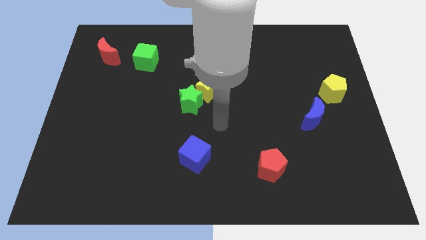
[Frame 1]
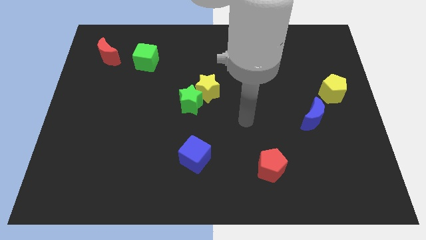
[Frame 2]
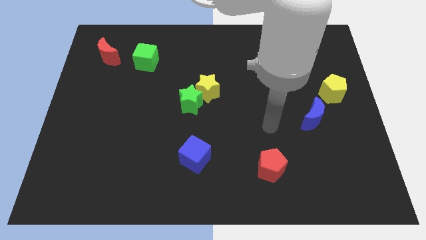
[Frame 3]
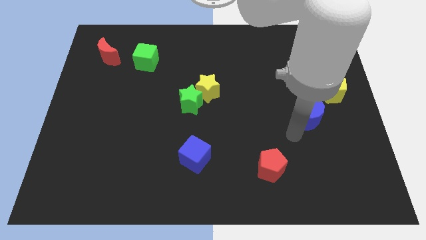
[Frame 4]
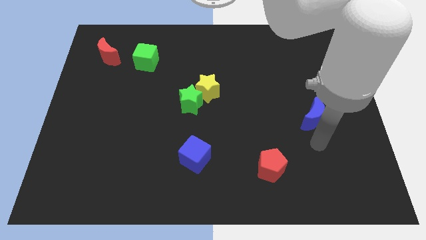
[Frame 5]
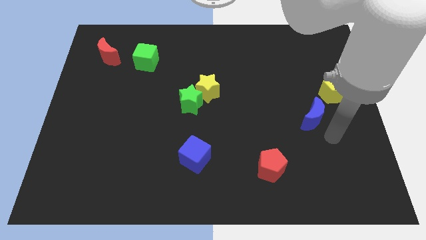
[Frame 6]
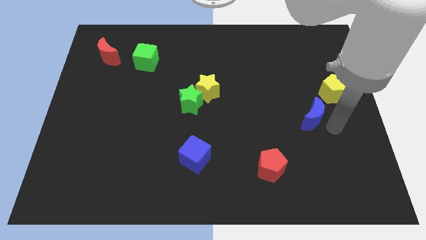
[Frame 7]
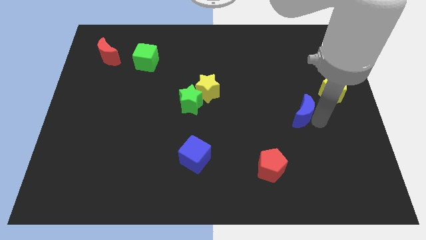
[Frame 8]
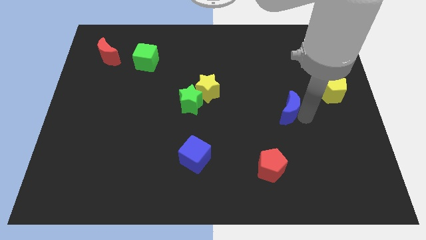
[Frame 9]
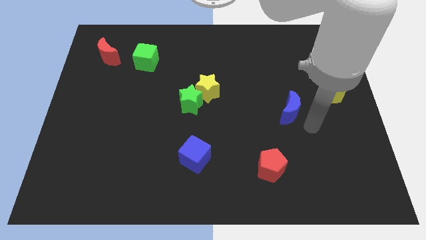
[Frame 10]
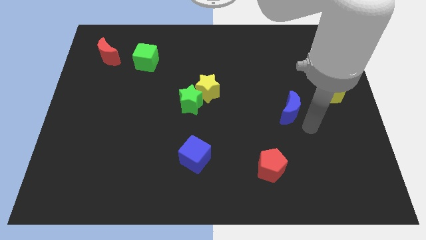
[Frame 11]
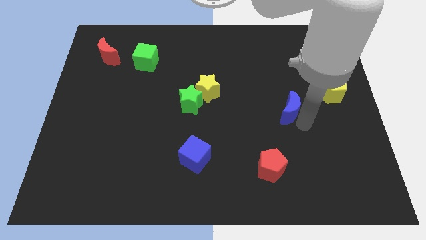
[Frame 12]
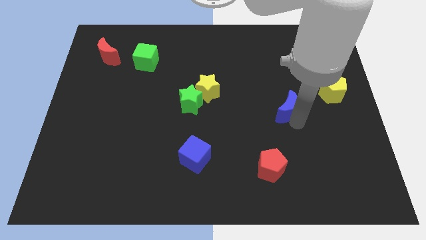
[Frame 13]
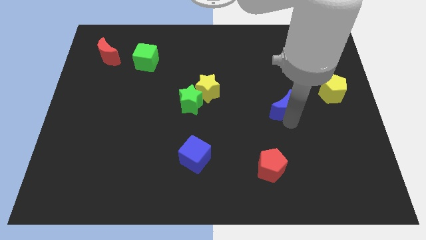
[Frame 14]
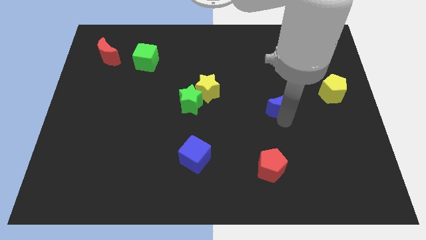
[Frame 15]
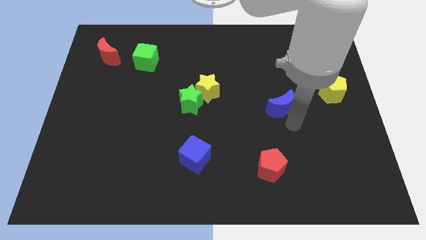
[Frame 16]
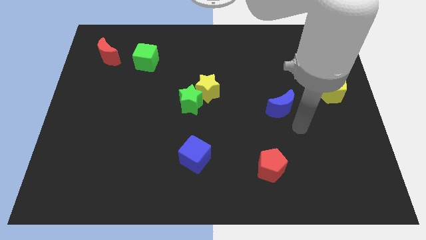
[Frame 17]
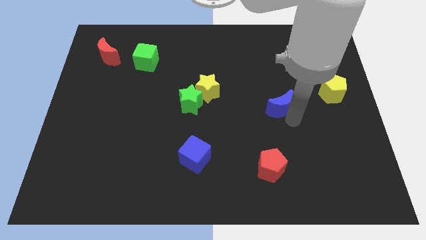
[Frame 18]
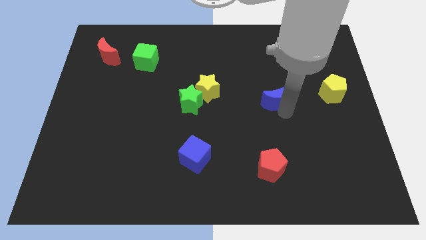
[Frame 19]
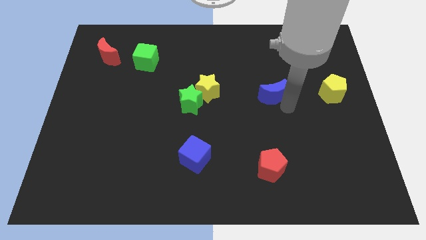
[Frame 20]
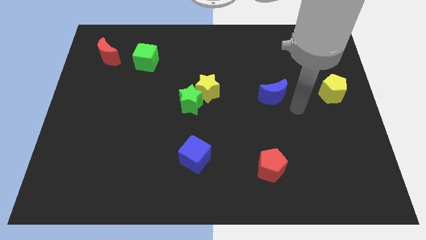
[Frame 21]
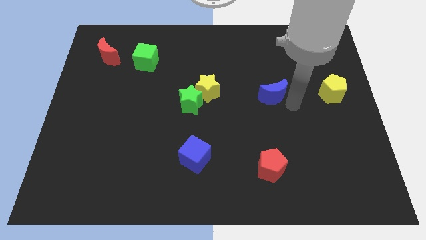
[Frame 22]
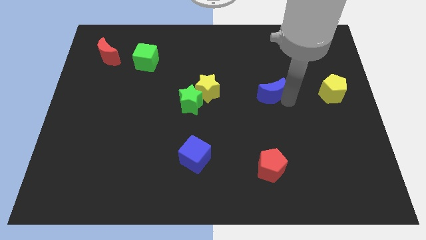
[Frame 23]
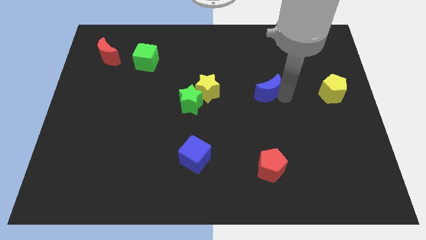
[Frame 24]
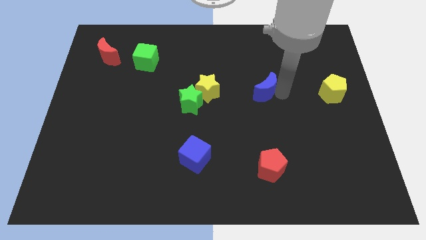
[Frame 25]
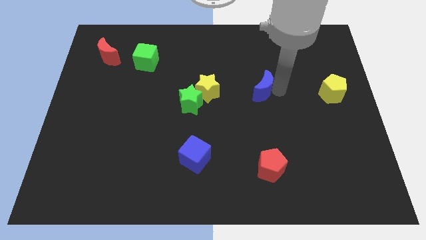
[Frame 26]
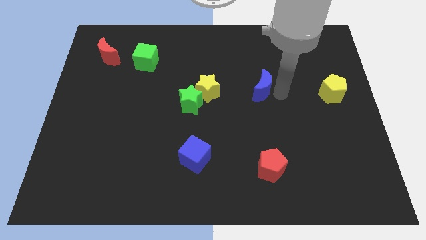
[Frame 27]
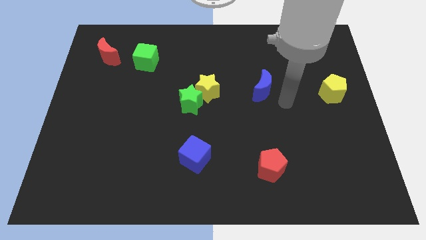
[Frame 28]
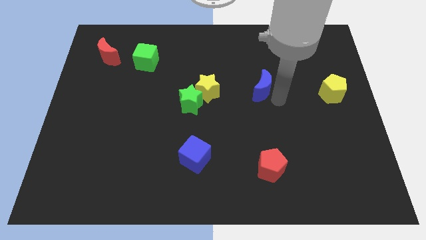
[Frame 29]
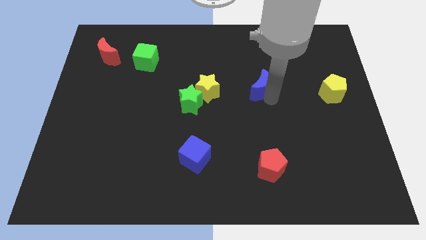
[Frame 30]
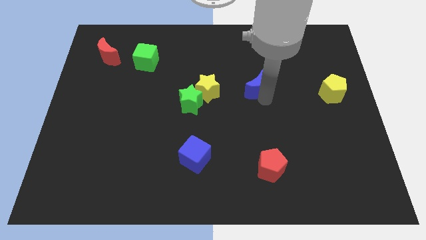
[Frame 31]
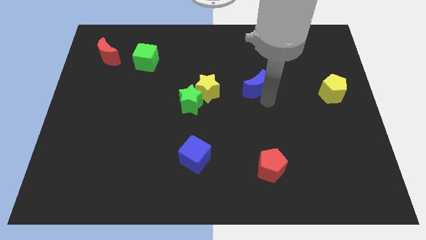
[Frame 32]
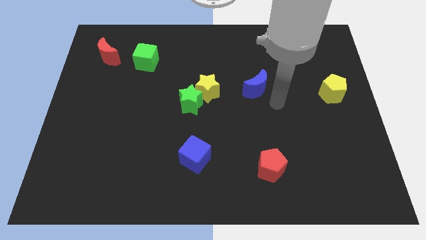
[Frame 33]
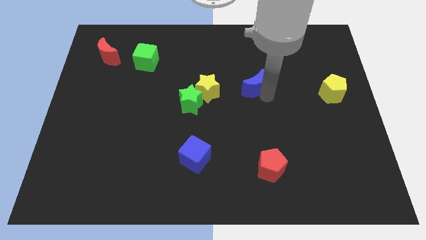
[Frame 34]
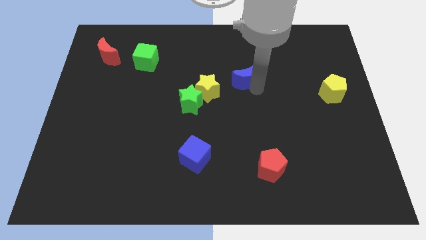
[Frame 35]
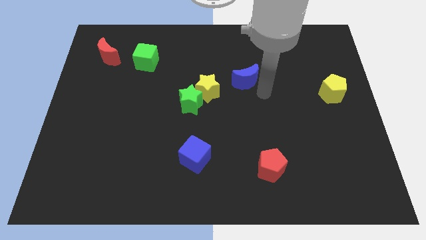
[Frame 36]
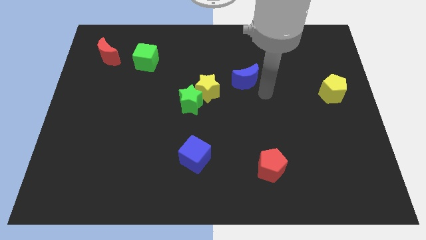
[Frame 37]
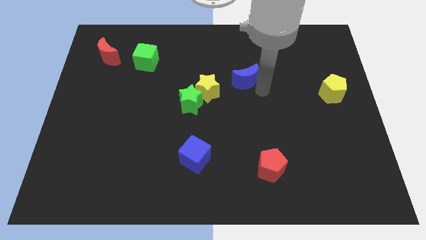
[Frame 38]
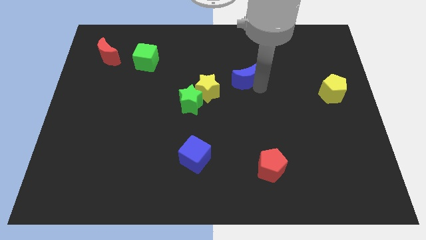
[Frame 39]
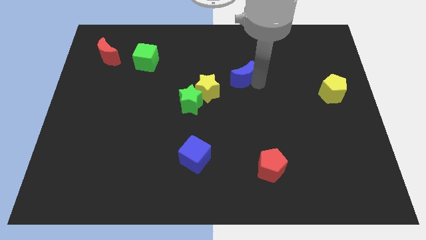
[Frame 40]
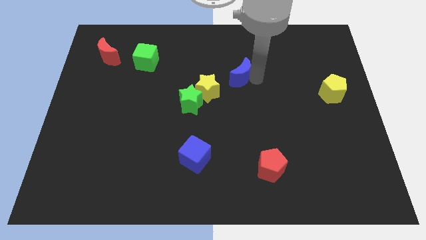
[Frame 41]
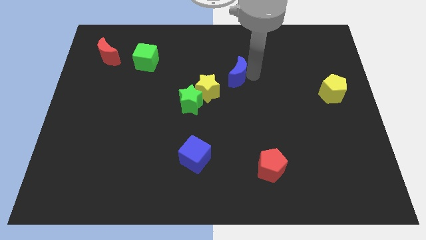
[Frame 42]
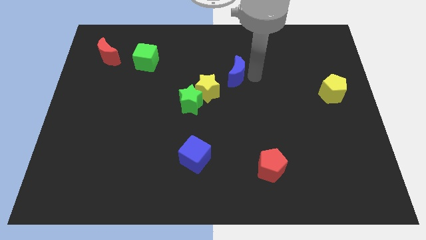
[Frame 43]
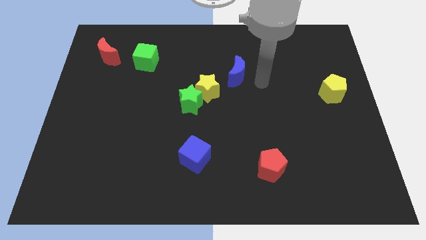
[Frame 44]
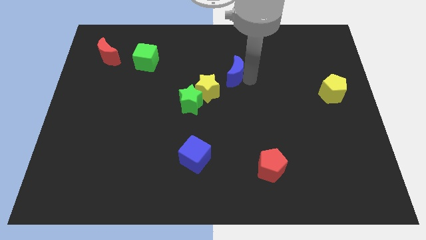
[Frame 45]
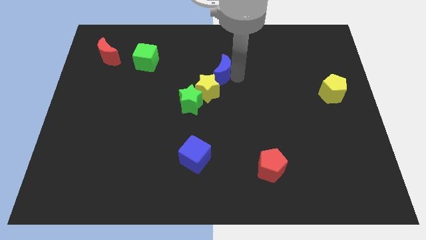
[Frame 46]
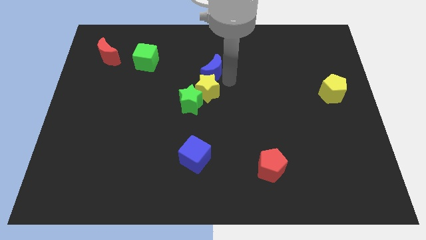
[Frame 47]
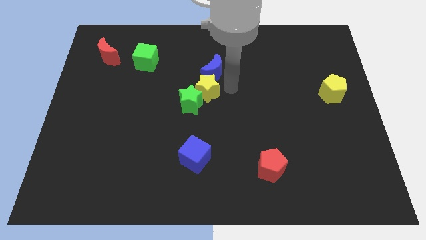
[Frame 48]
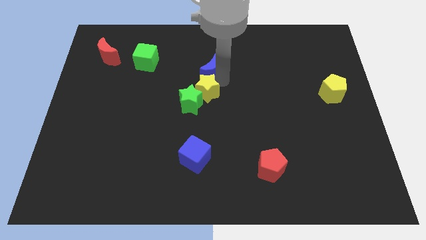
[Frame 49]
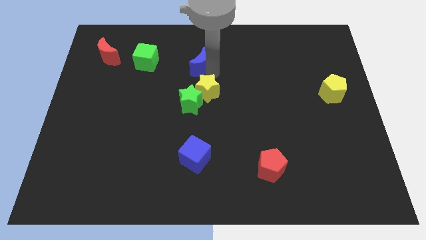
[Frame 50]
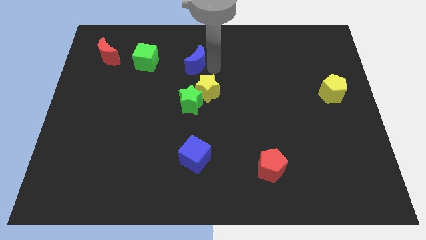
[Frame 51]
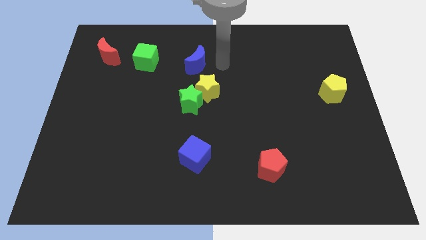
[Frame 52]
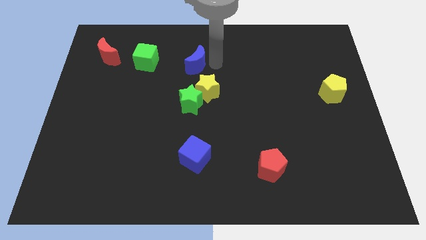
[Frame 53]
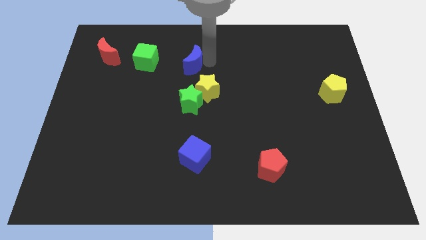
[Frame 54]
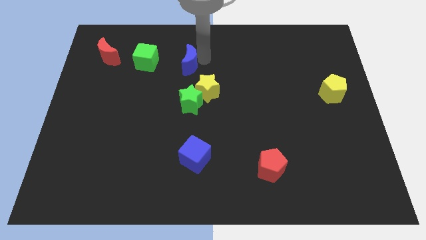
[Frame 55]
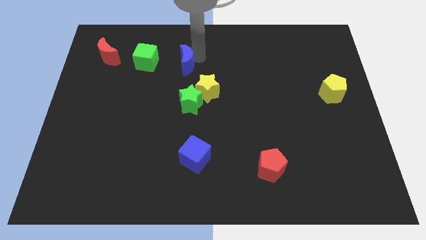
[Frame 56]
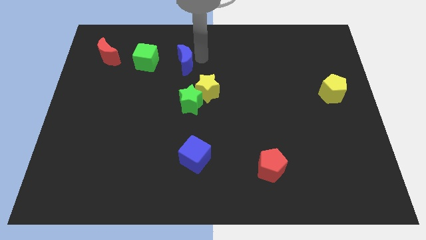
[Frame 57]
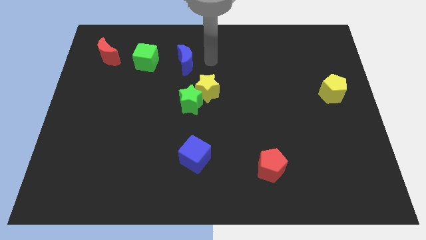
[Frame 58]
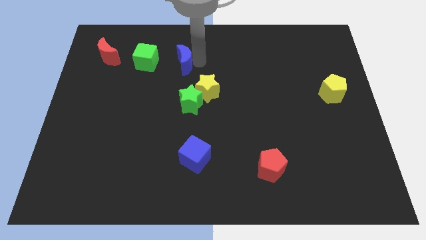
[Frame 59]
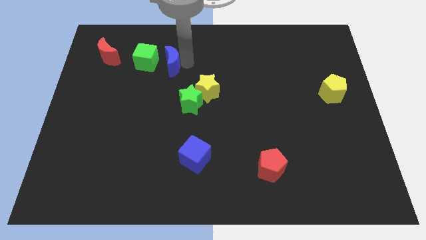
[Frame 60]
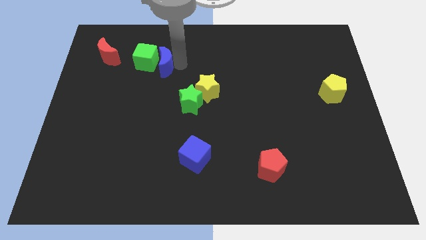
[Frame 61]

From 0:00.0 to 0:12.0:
put the blue moon towards the green cube

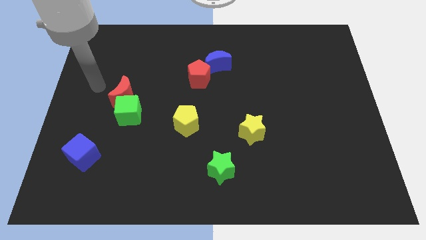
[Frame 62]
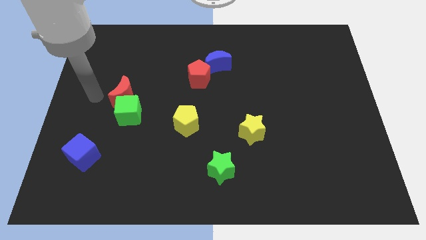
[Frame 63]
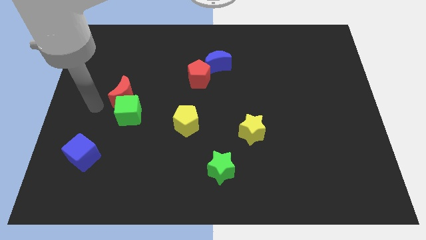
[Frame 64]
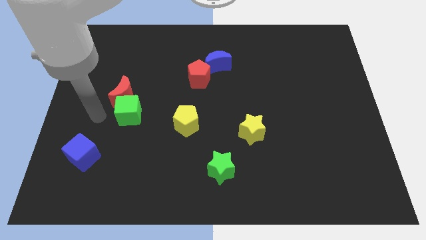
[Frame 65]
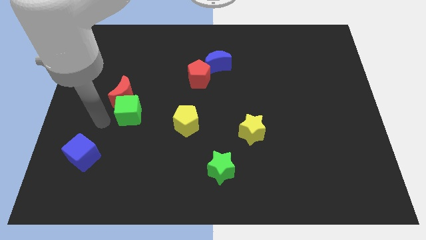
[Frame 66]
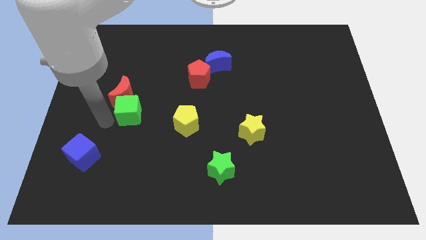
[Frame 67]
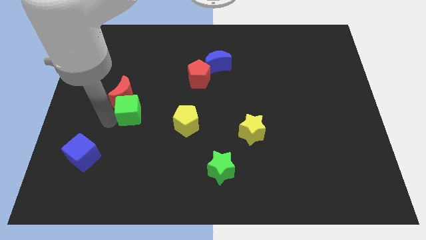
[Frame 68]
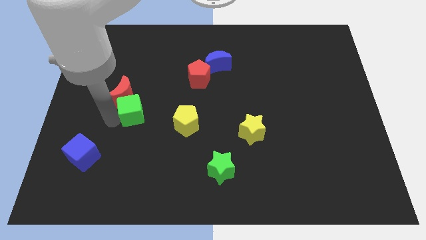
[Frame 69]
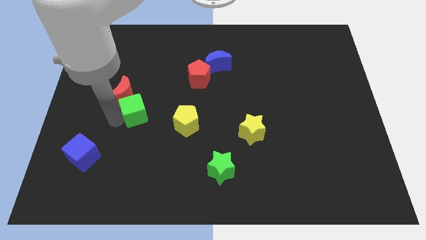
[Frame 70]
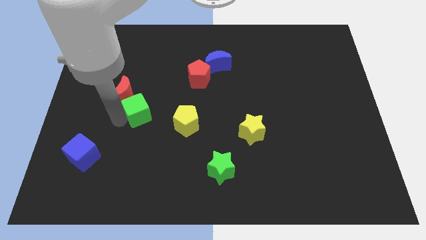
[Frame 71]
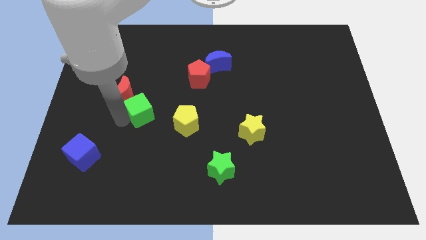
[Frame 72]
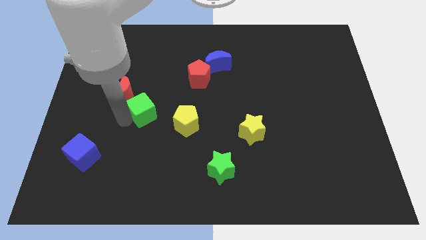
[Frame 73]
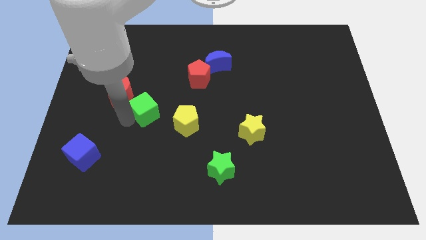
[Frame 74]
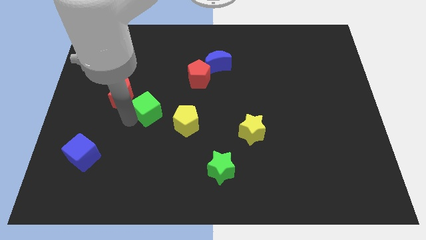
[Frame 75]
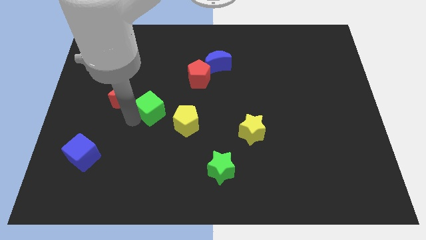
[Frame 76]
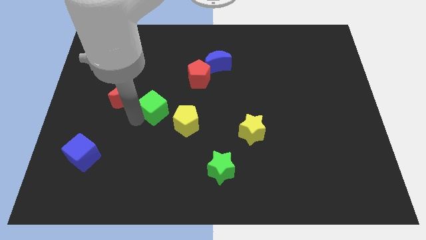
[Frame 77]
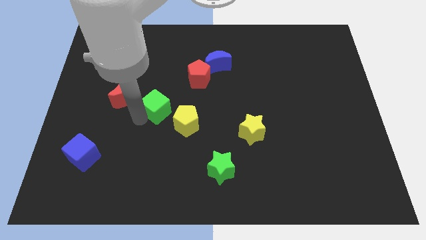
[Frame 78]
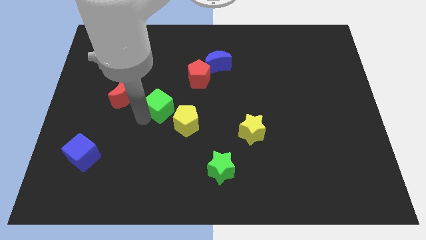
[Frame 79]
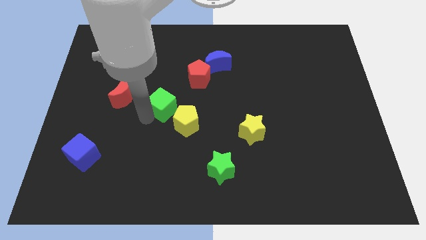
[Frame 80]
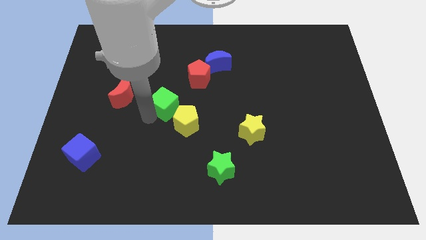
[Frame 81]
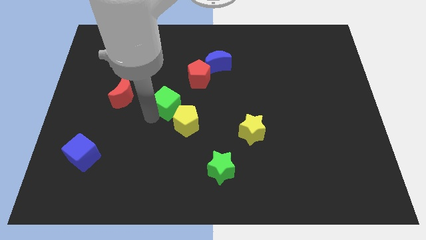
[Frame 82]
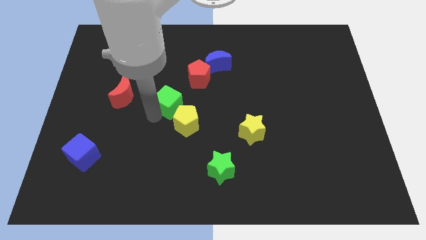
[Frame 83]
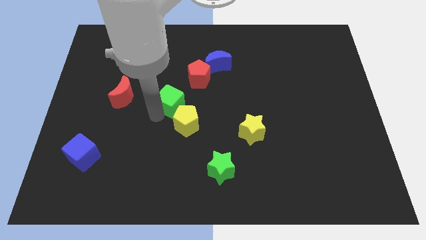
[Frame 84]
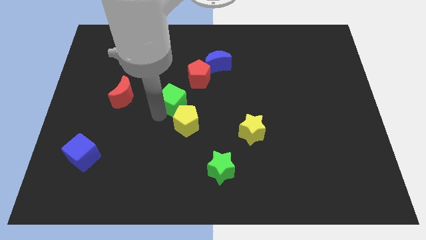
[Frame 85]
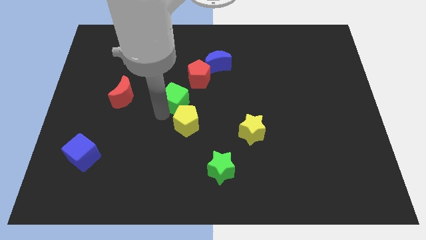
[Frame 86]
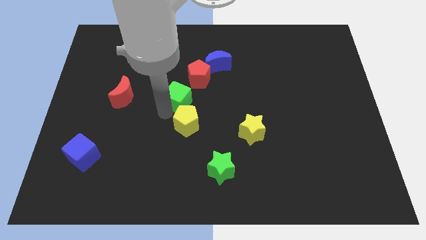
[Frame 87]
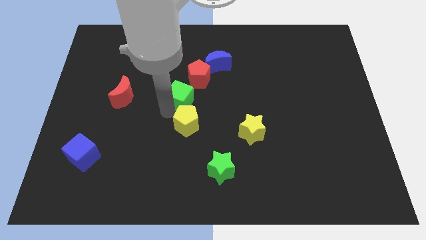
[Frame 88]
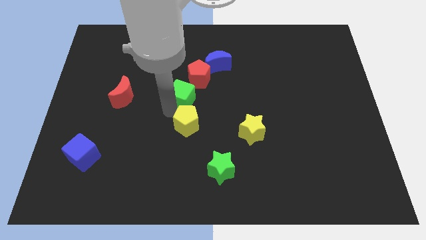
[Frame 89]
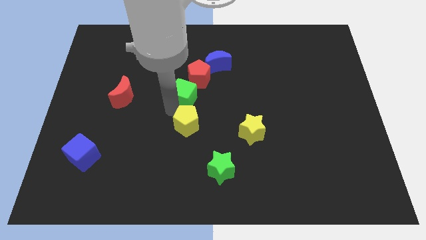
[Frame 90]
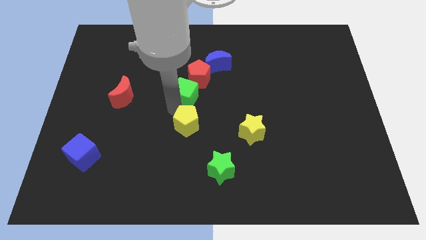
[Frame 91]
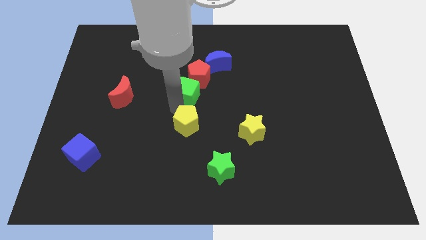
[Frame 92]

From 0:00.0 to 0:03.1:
move the green cube next to the red pentagon
